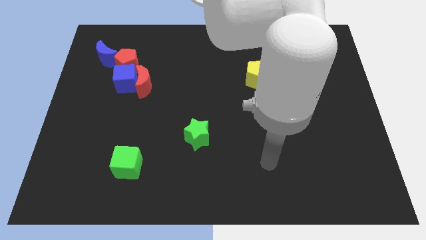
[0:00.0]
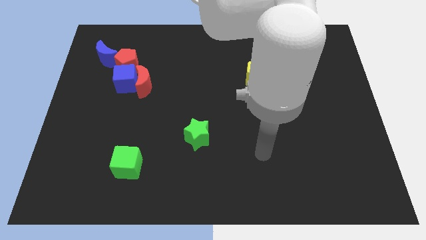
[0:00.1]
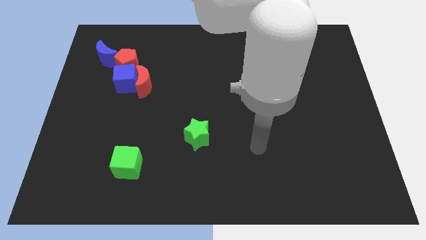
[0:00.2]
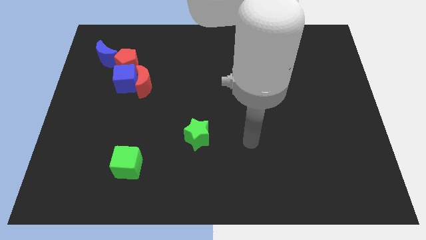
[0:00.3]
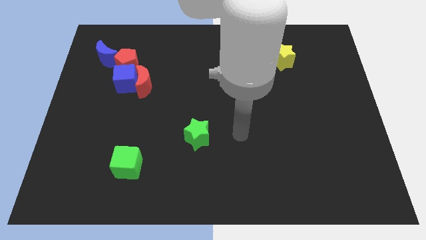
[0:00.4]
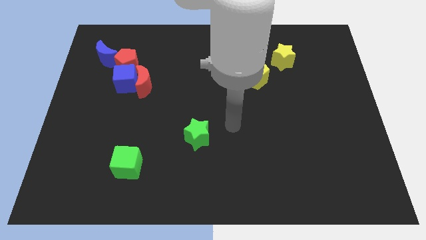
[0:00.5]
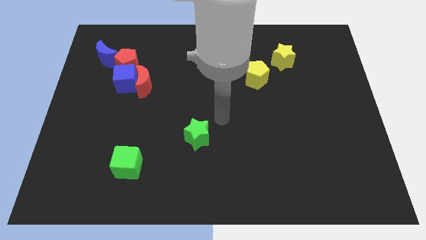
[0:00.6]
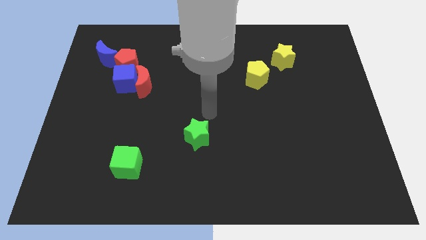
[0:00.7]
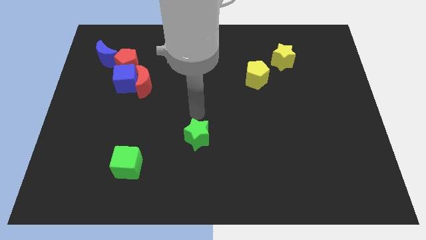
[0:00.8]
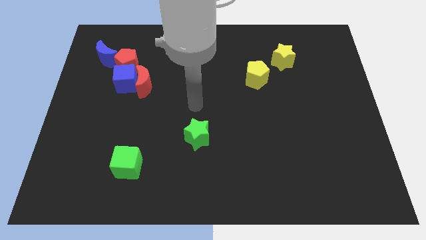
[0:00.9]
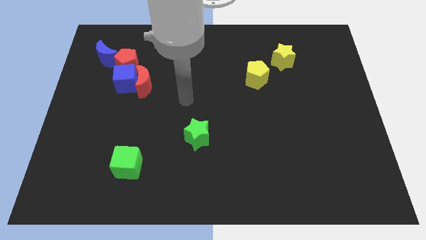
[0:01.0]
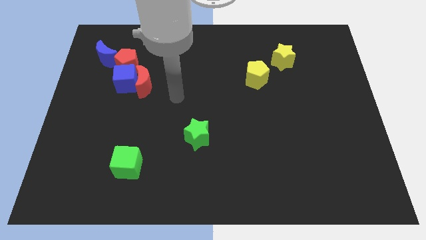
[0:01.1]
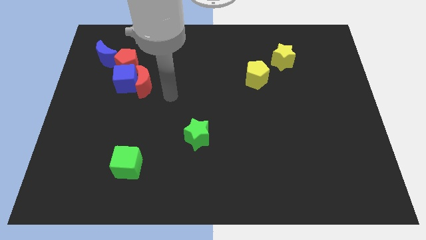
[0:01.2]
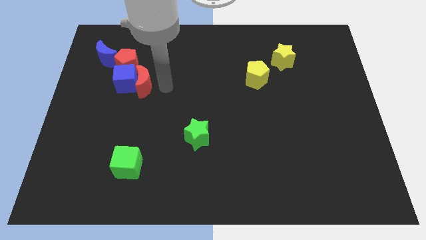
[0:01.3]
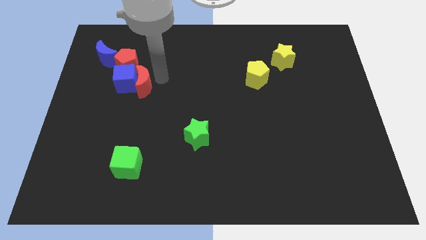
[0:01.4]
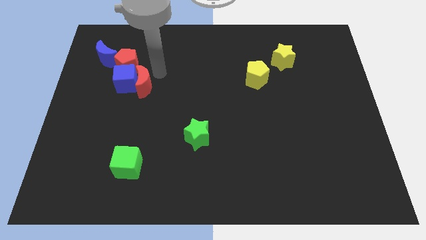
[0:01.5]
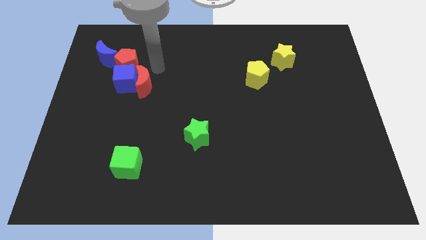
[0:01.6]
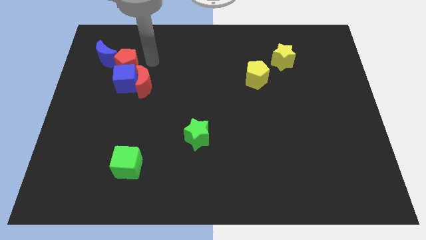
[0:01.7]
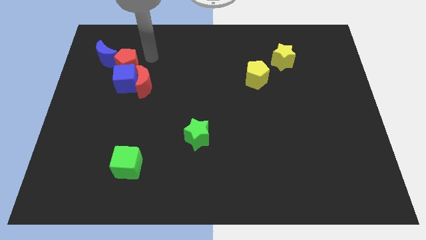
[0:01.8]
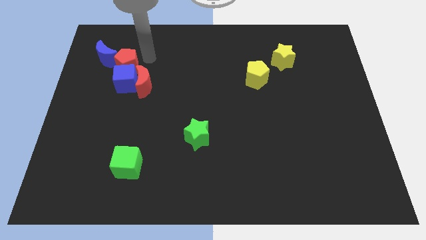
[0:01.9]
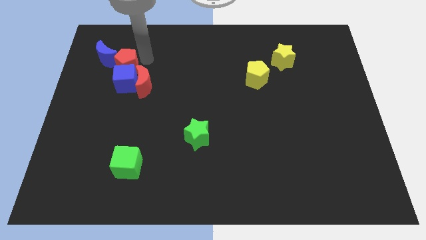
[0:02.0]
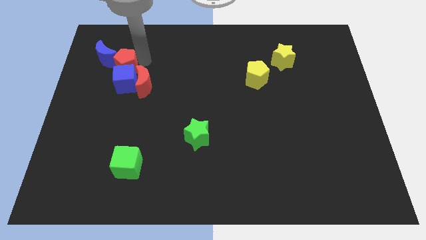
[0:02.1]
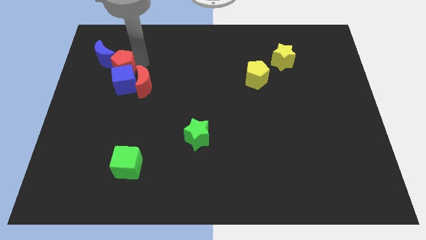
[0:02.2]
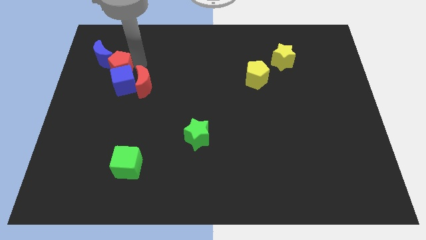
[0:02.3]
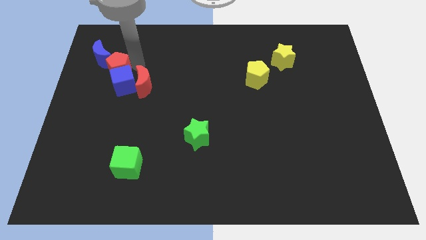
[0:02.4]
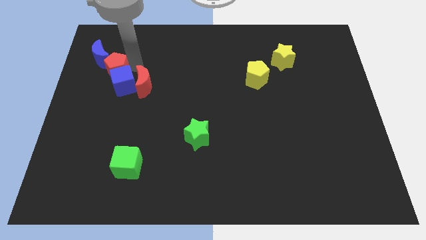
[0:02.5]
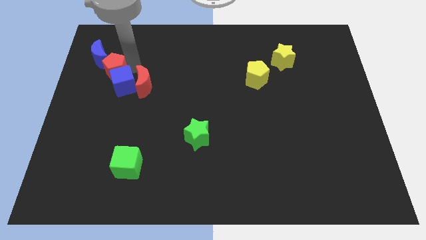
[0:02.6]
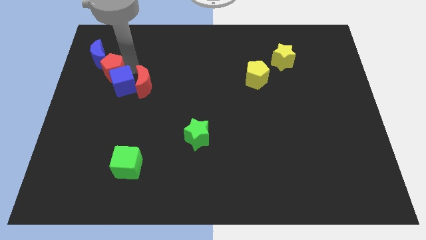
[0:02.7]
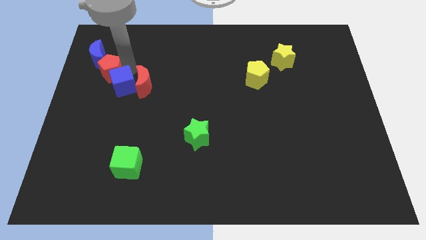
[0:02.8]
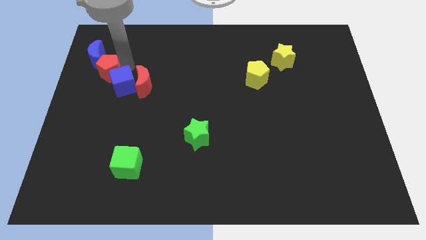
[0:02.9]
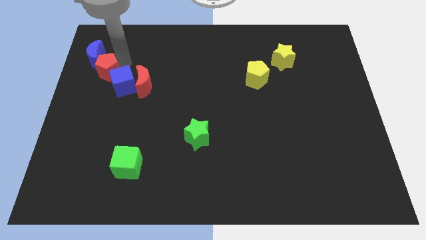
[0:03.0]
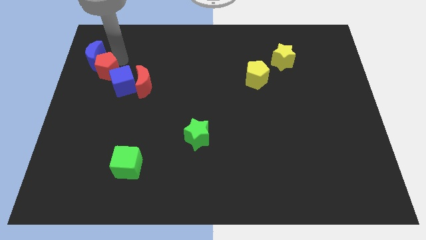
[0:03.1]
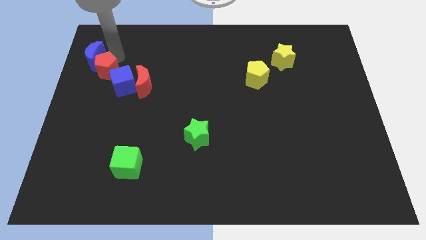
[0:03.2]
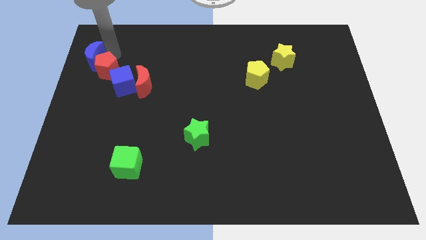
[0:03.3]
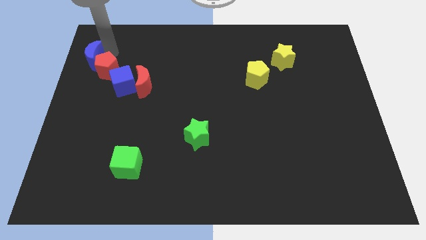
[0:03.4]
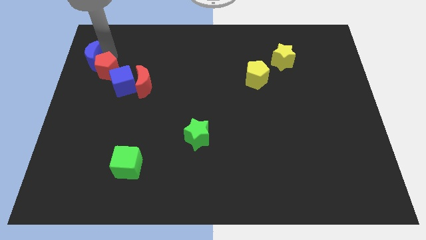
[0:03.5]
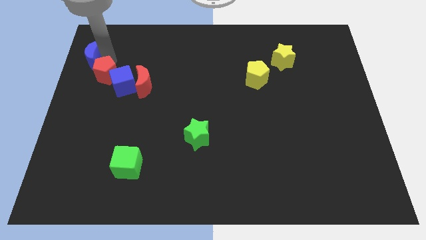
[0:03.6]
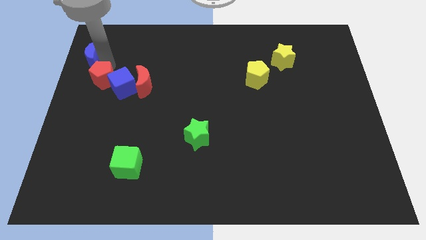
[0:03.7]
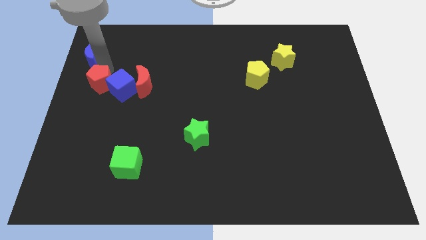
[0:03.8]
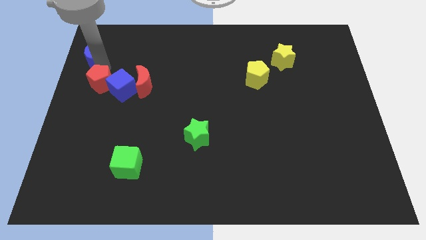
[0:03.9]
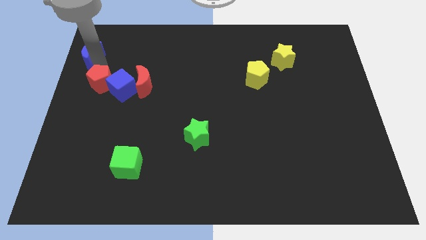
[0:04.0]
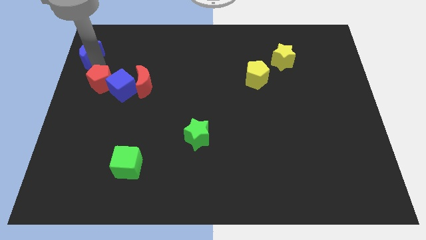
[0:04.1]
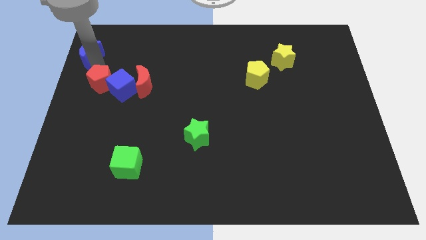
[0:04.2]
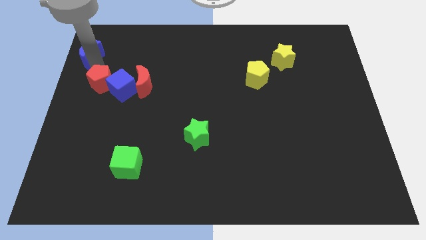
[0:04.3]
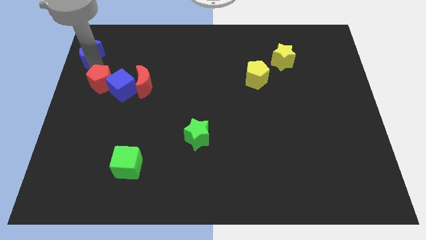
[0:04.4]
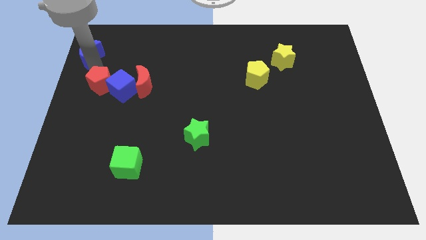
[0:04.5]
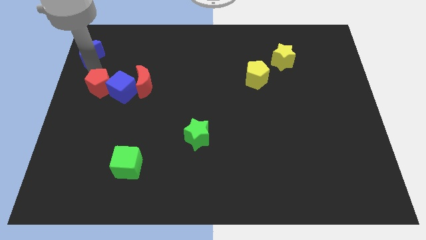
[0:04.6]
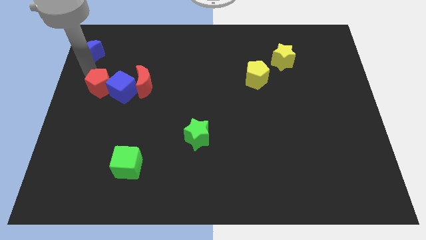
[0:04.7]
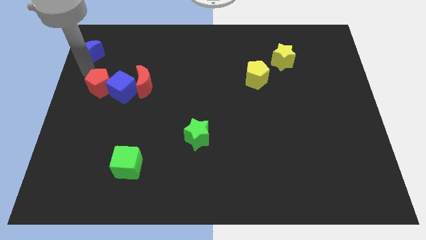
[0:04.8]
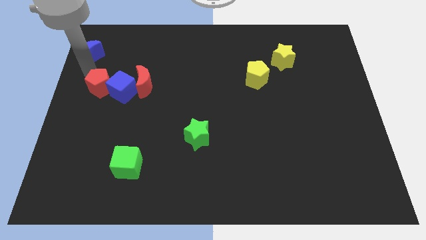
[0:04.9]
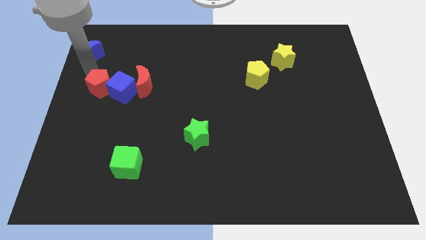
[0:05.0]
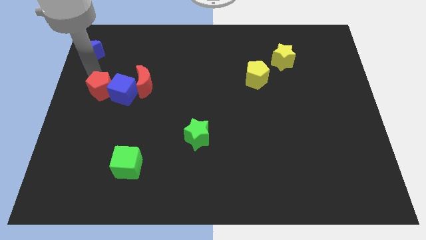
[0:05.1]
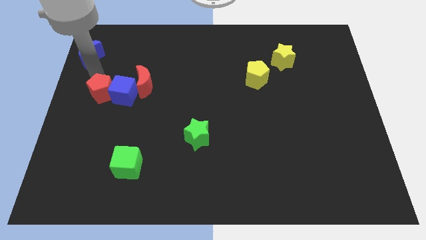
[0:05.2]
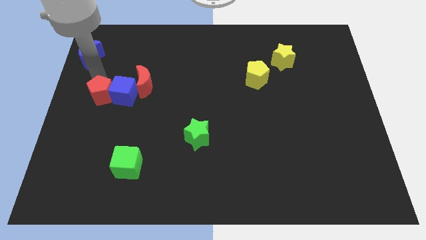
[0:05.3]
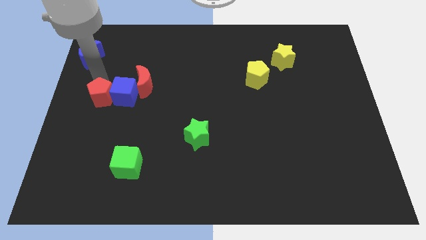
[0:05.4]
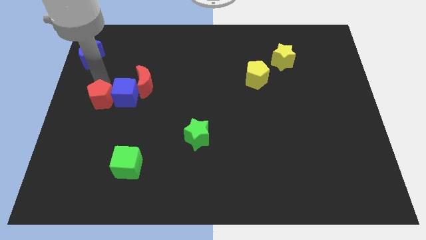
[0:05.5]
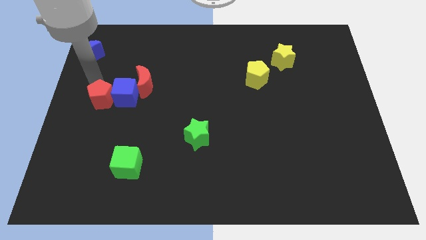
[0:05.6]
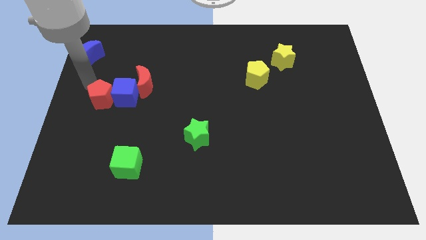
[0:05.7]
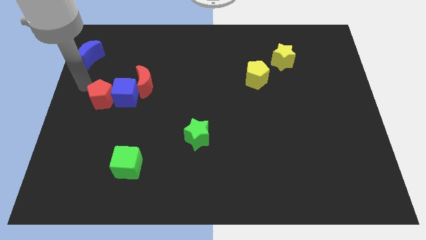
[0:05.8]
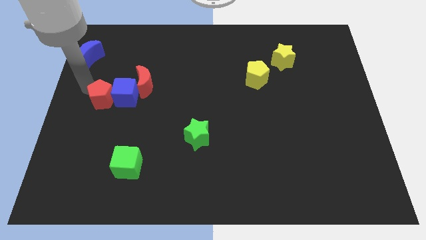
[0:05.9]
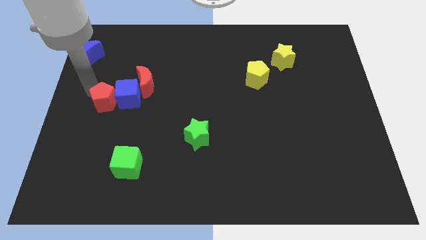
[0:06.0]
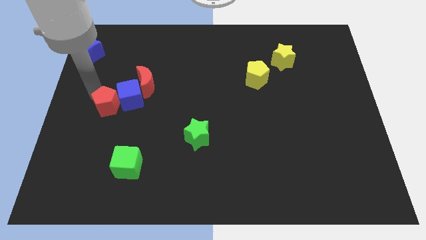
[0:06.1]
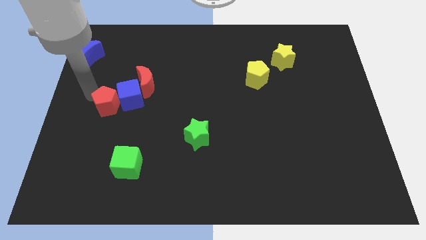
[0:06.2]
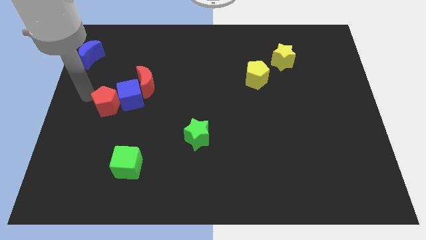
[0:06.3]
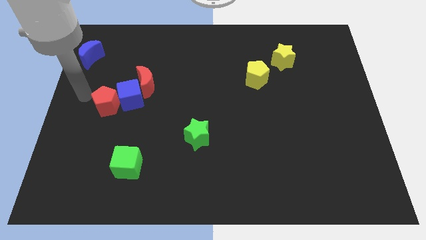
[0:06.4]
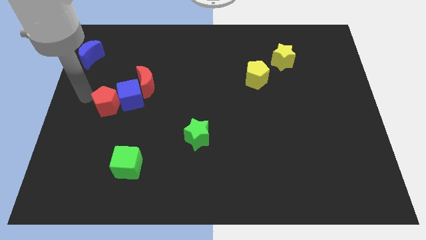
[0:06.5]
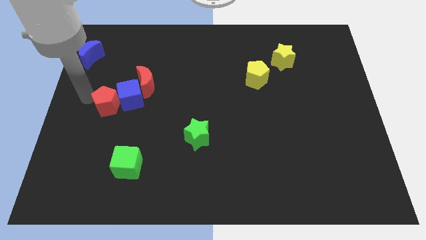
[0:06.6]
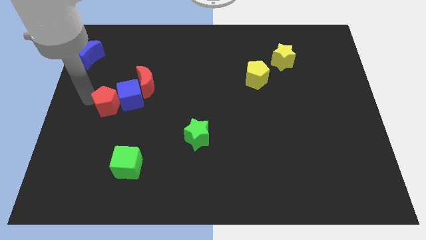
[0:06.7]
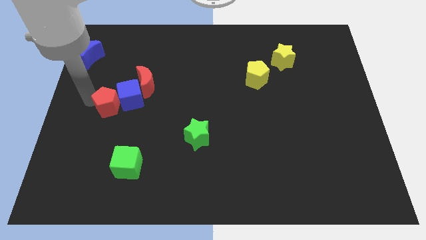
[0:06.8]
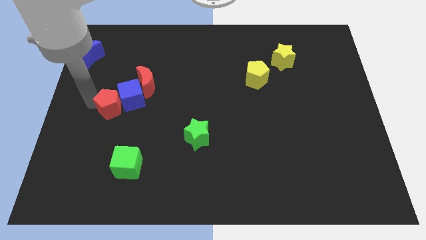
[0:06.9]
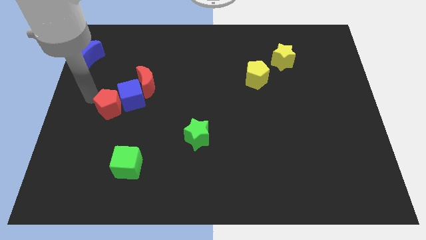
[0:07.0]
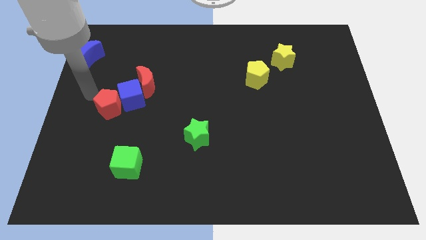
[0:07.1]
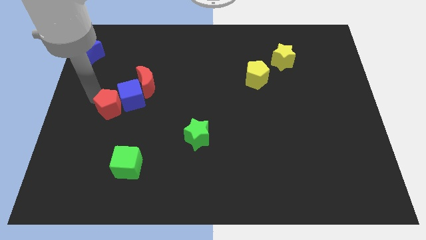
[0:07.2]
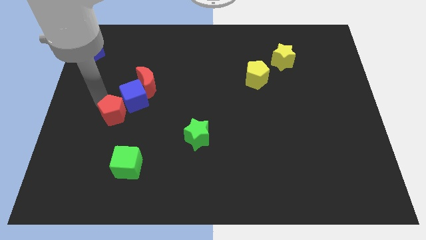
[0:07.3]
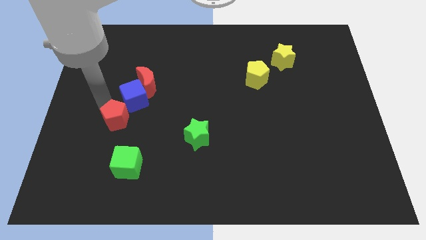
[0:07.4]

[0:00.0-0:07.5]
move the red pentagon to the top of the green cube
